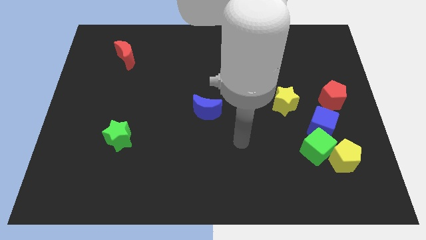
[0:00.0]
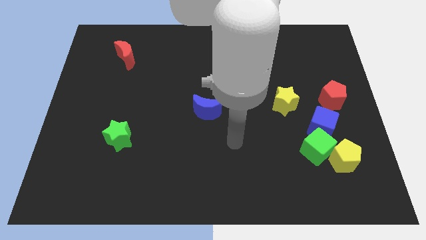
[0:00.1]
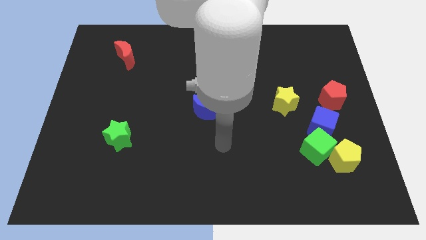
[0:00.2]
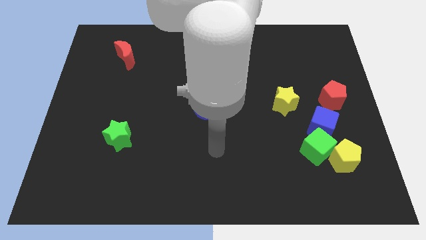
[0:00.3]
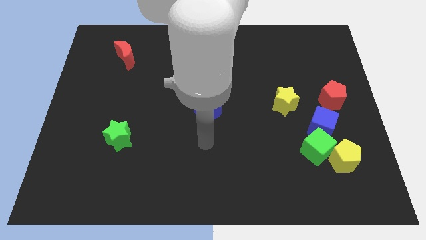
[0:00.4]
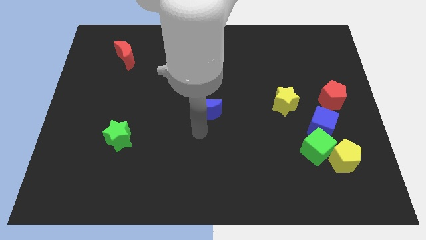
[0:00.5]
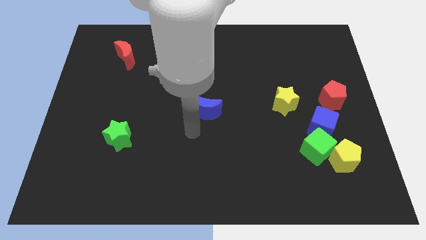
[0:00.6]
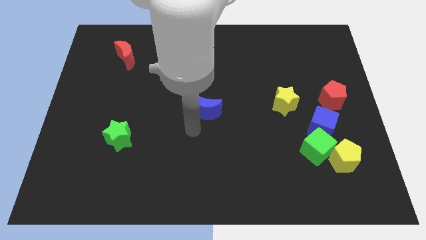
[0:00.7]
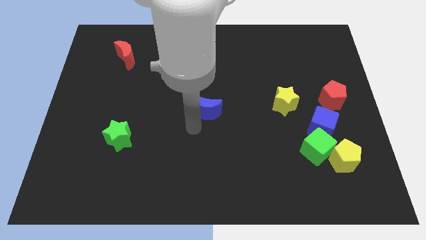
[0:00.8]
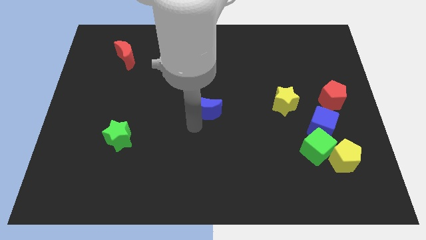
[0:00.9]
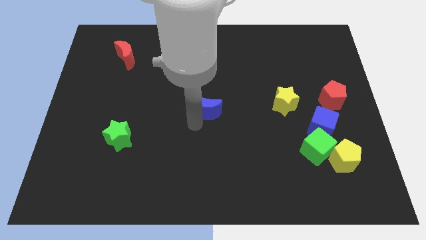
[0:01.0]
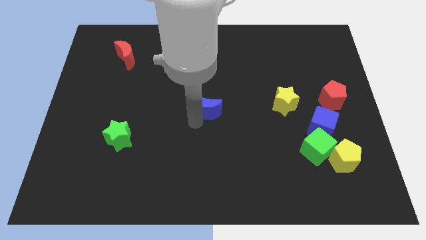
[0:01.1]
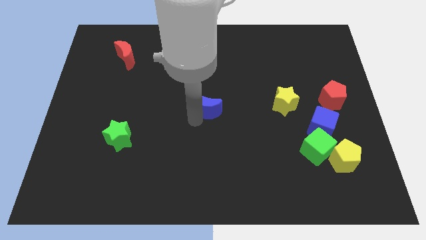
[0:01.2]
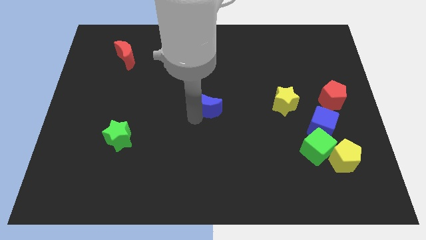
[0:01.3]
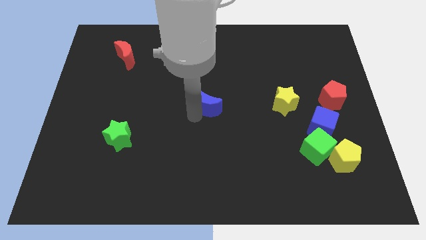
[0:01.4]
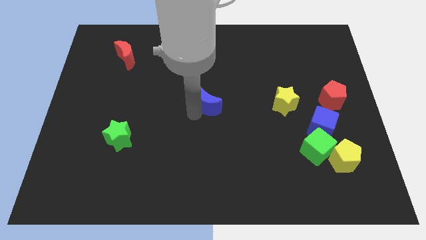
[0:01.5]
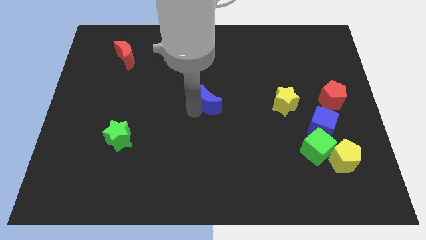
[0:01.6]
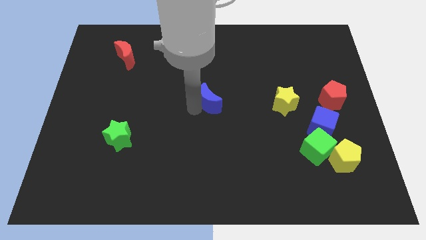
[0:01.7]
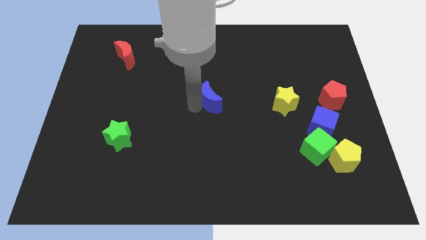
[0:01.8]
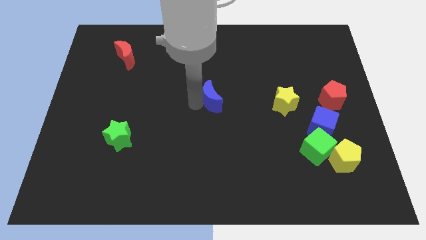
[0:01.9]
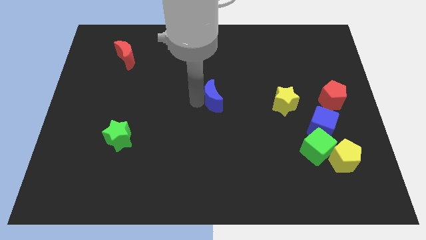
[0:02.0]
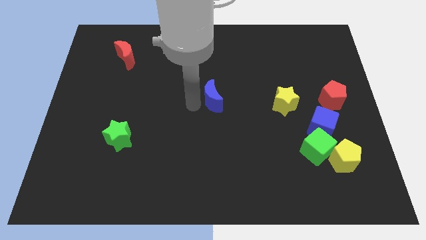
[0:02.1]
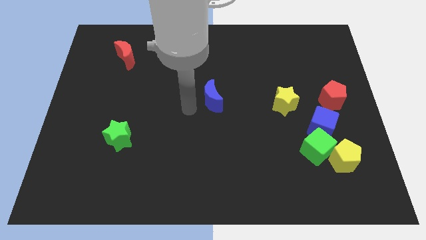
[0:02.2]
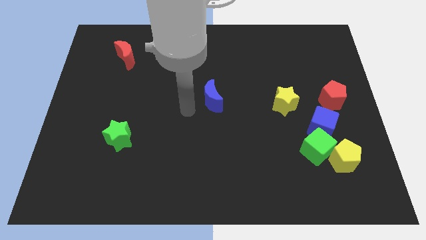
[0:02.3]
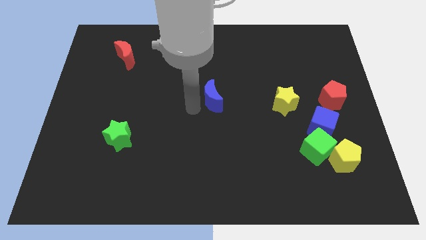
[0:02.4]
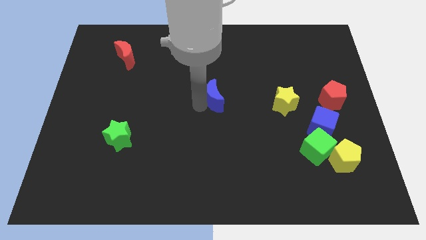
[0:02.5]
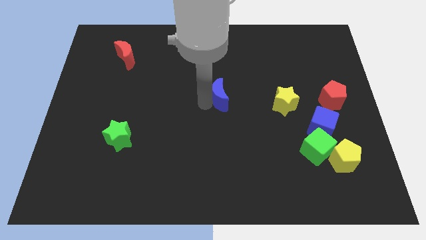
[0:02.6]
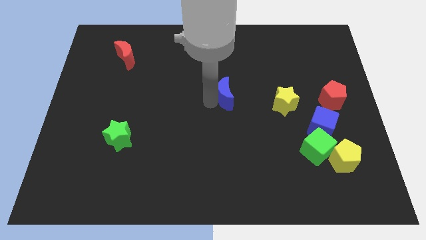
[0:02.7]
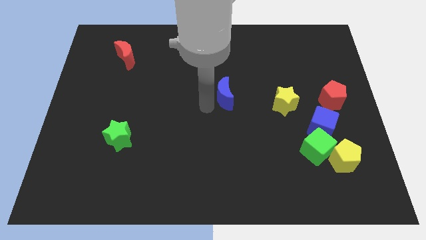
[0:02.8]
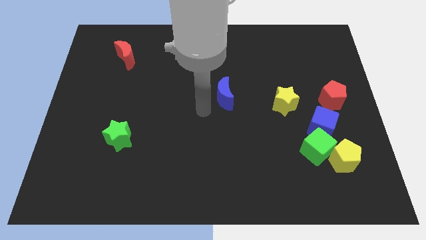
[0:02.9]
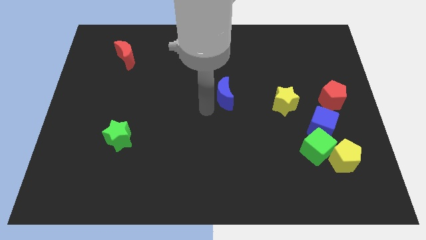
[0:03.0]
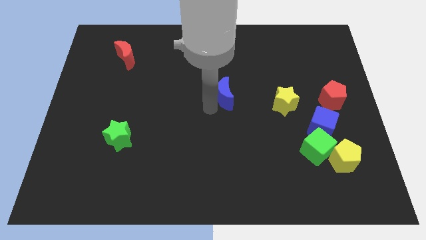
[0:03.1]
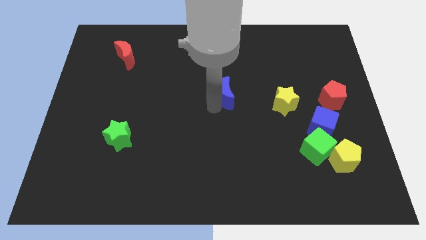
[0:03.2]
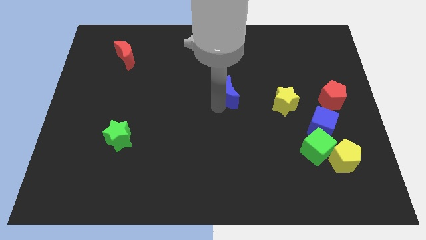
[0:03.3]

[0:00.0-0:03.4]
slightly move the blue moon upwards and right diagonally

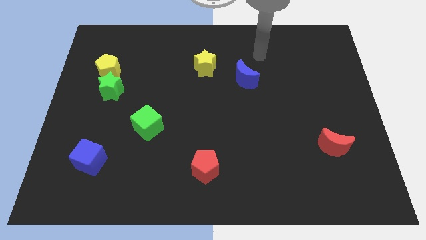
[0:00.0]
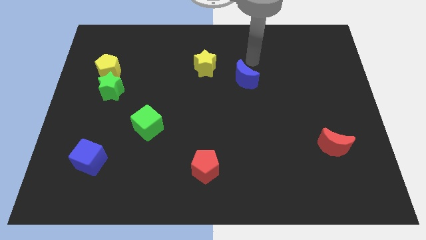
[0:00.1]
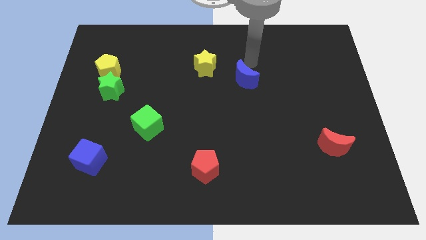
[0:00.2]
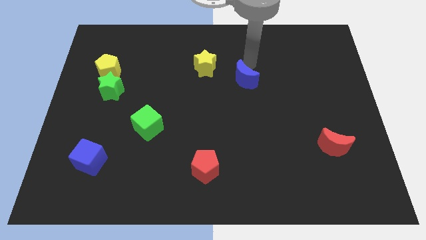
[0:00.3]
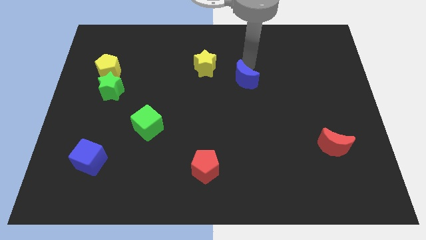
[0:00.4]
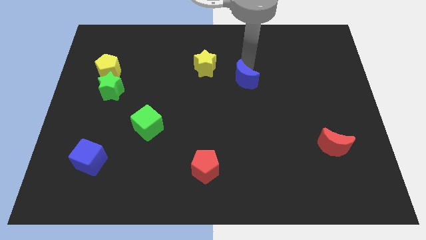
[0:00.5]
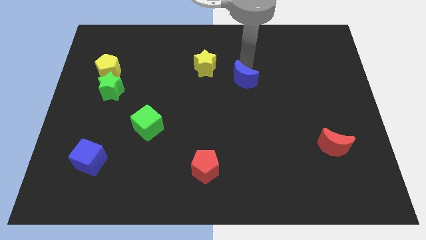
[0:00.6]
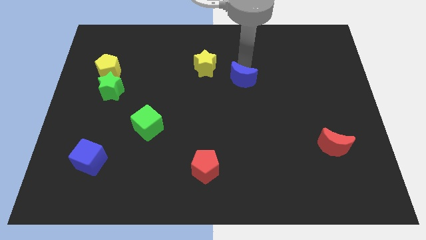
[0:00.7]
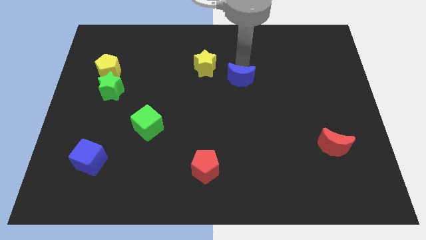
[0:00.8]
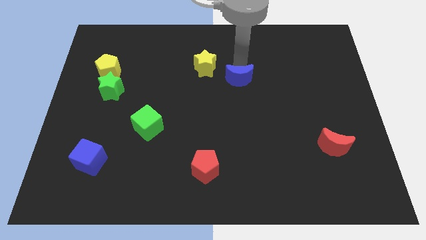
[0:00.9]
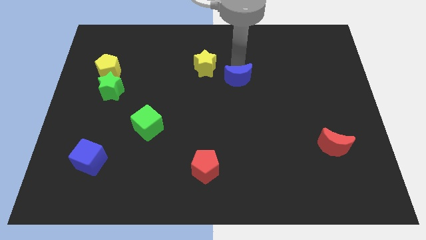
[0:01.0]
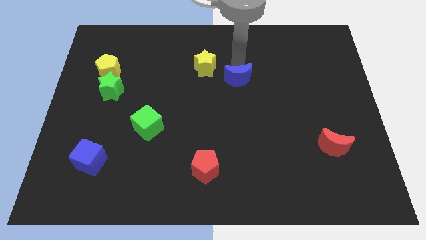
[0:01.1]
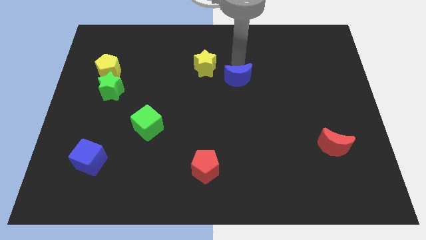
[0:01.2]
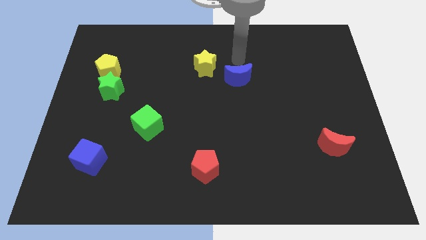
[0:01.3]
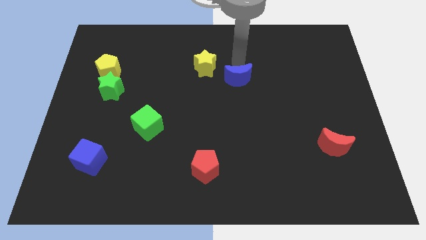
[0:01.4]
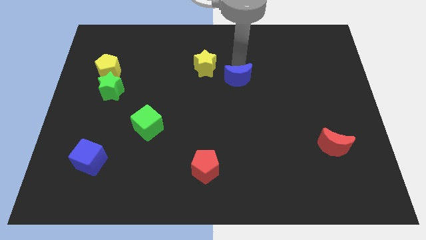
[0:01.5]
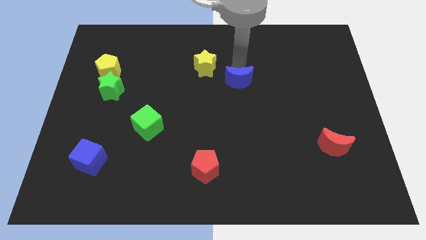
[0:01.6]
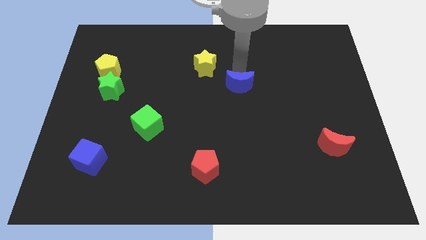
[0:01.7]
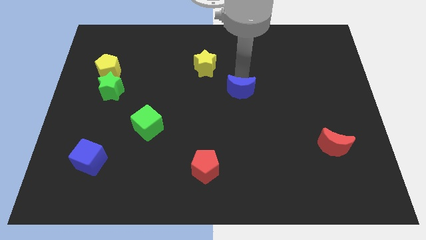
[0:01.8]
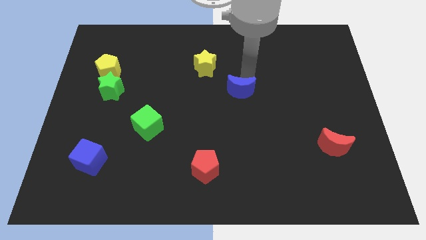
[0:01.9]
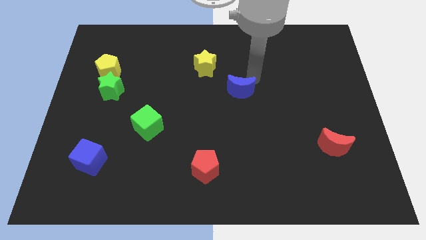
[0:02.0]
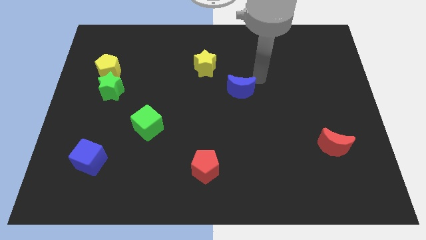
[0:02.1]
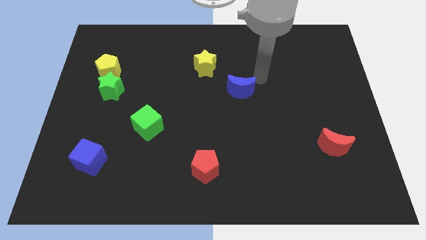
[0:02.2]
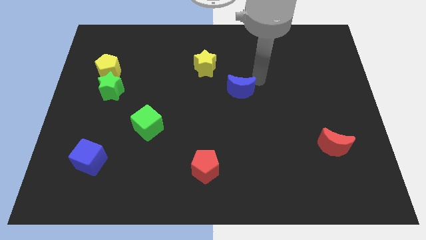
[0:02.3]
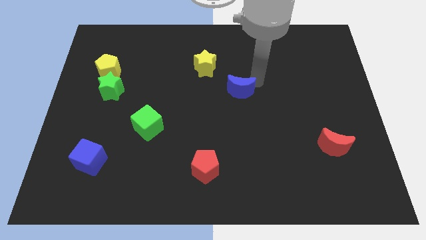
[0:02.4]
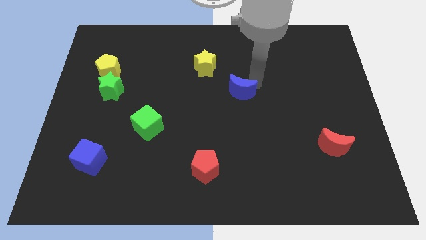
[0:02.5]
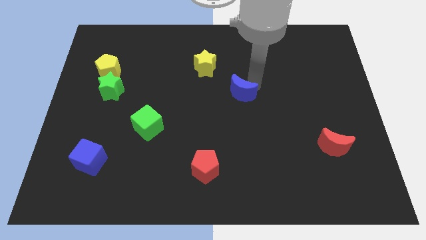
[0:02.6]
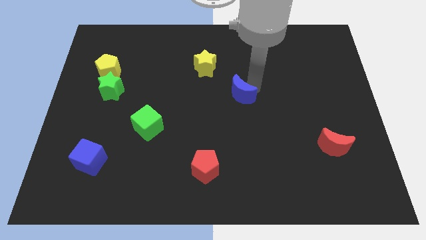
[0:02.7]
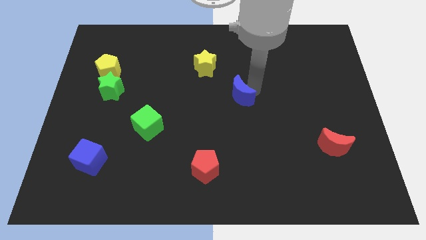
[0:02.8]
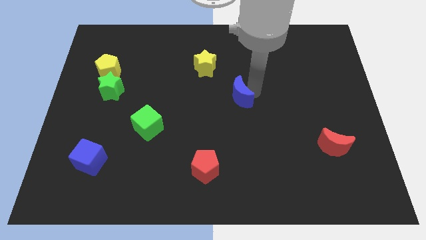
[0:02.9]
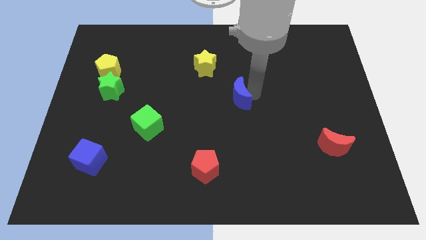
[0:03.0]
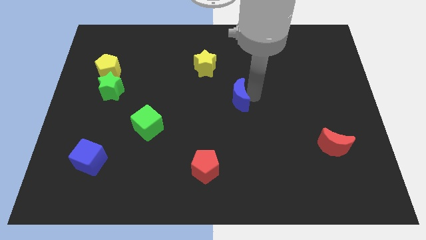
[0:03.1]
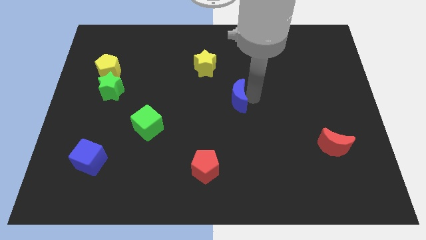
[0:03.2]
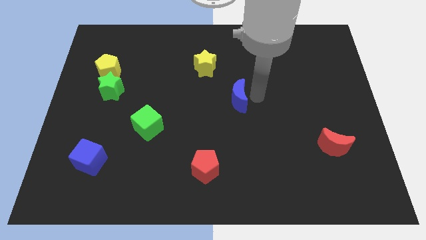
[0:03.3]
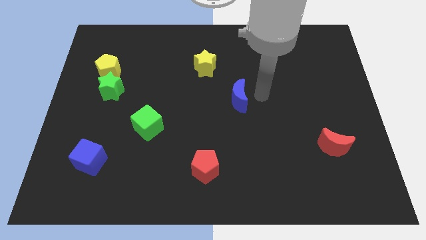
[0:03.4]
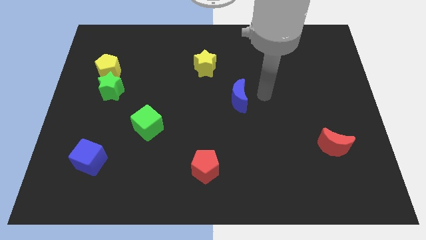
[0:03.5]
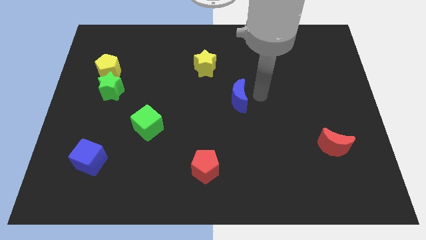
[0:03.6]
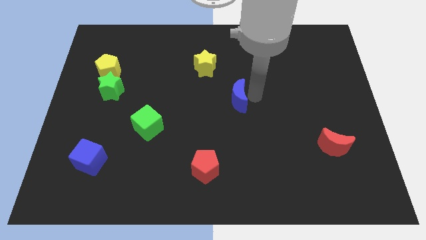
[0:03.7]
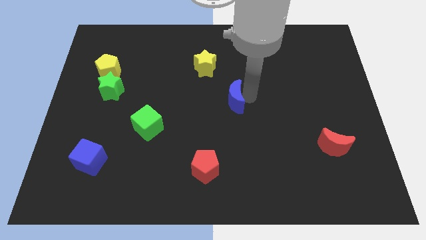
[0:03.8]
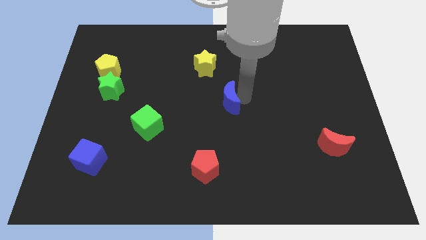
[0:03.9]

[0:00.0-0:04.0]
slide the blue moon downwards and then left a little bit

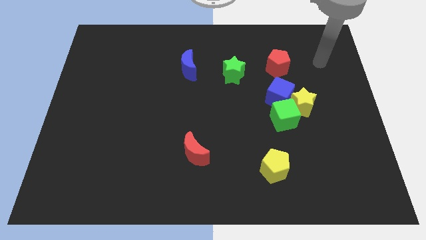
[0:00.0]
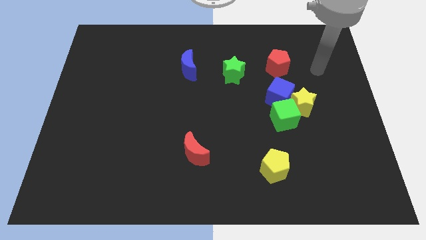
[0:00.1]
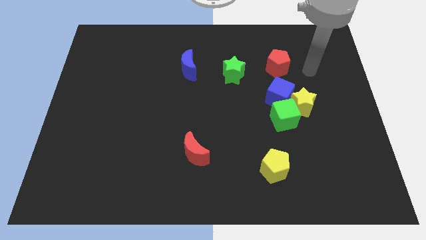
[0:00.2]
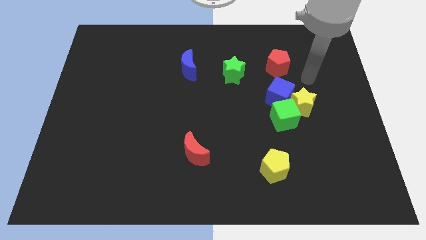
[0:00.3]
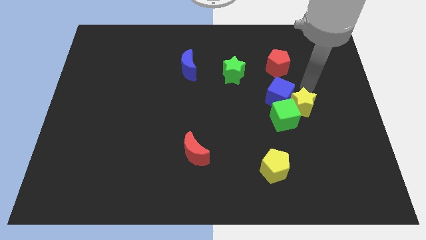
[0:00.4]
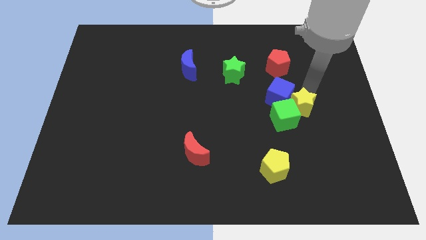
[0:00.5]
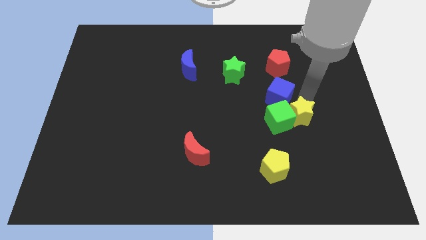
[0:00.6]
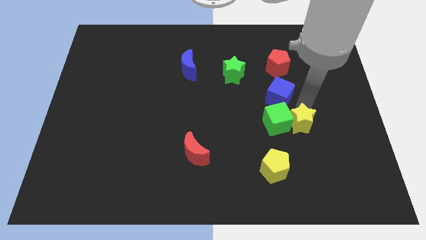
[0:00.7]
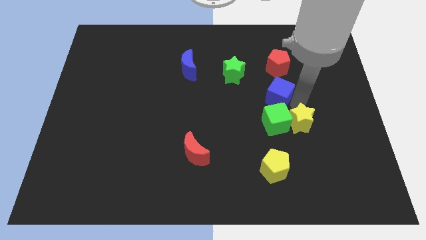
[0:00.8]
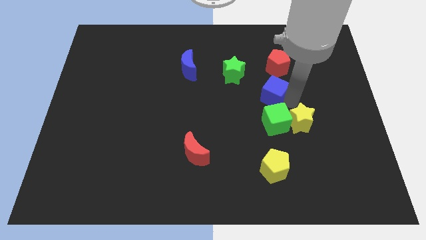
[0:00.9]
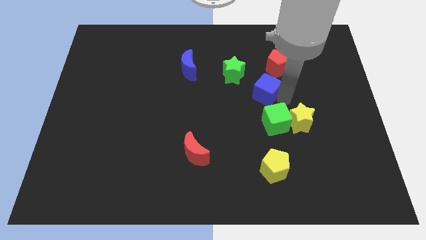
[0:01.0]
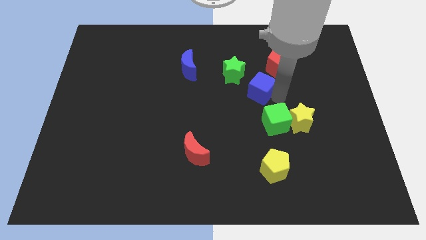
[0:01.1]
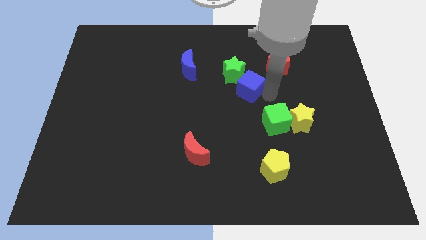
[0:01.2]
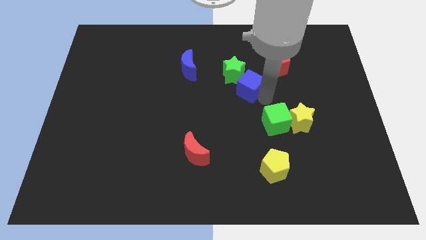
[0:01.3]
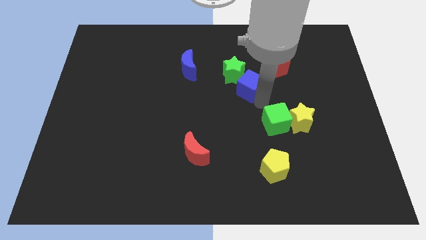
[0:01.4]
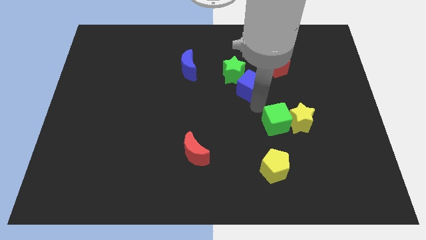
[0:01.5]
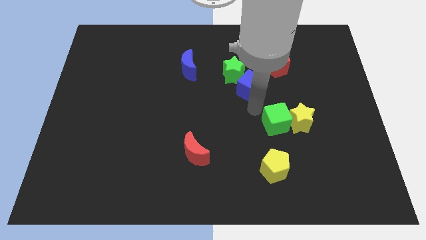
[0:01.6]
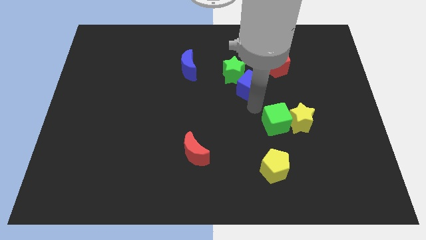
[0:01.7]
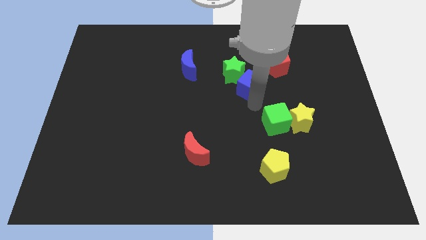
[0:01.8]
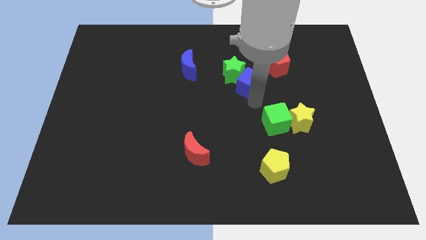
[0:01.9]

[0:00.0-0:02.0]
slide the blue cube upwards and then left a little bit
